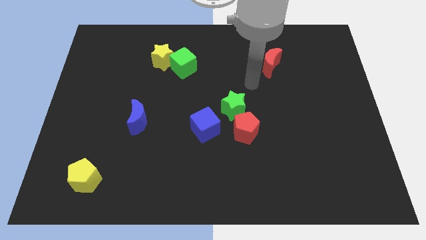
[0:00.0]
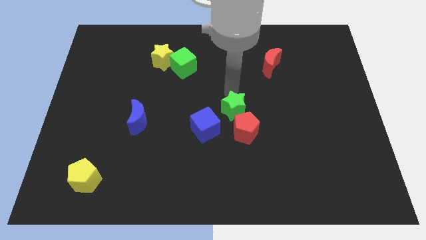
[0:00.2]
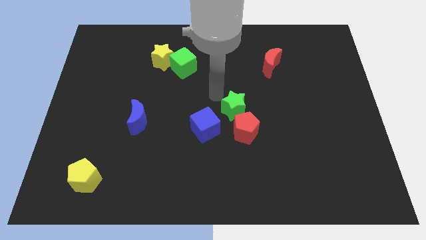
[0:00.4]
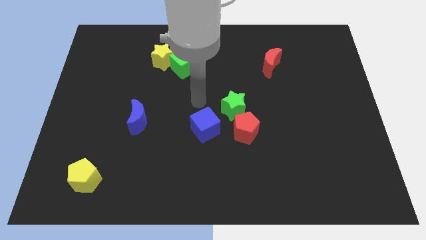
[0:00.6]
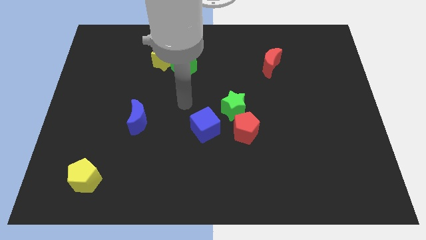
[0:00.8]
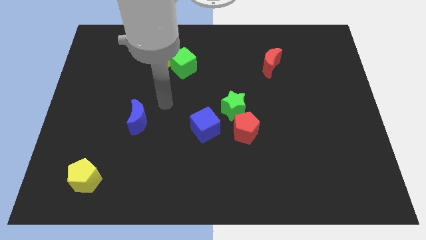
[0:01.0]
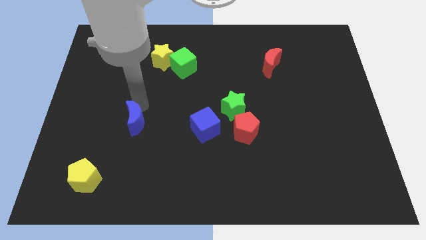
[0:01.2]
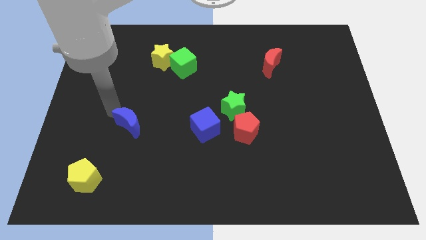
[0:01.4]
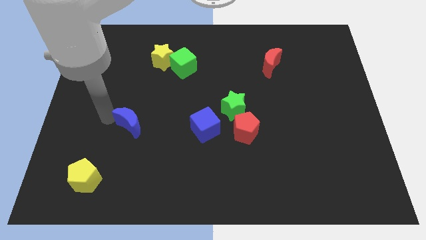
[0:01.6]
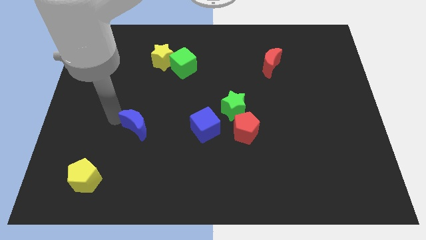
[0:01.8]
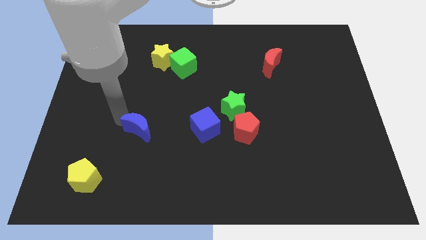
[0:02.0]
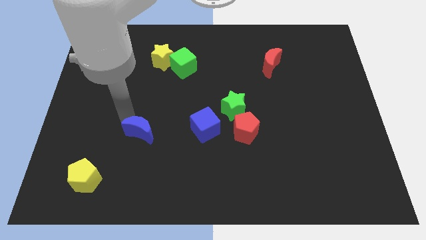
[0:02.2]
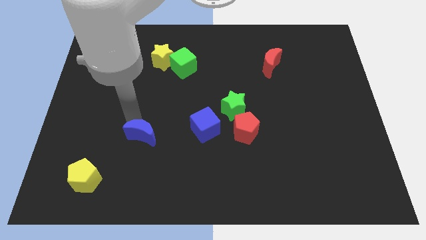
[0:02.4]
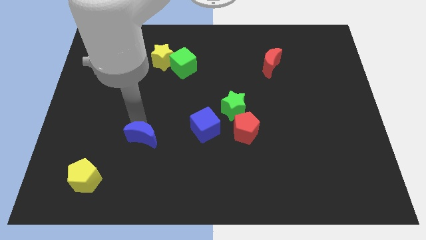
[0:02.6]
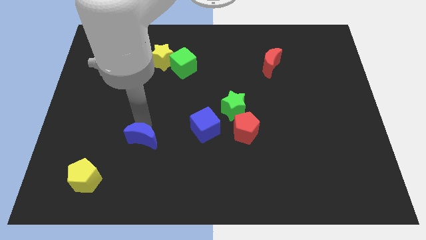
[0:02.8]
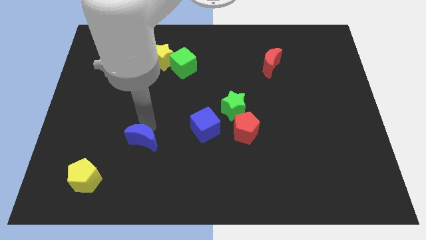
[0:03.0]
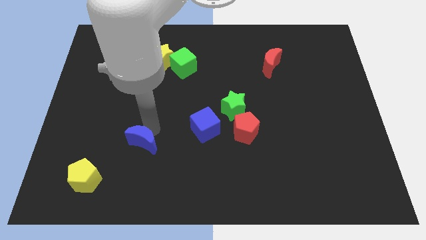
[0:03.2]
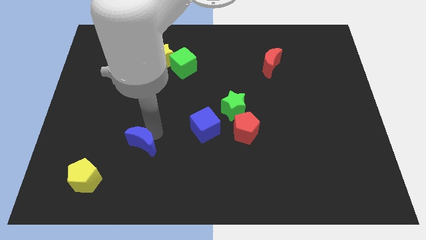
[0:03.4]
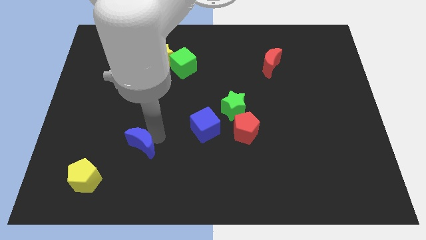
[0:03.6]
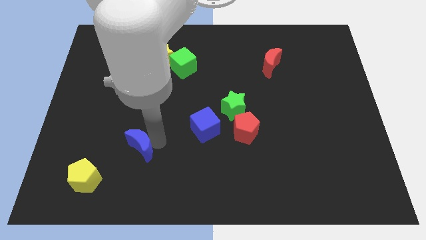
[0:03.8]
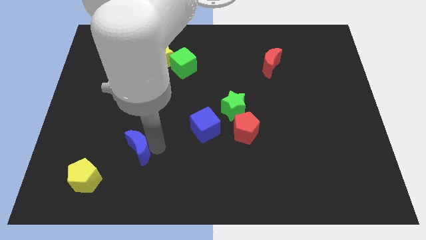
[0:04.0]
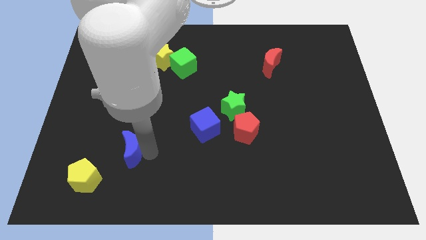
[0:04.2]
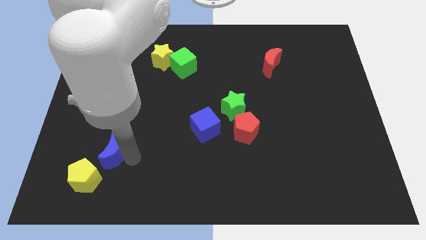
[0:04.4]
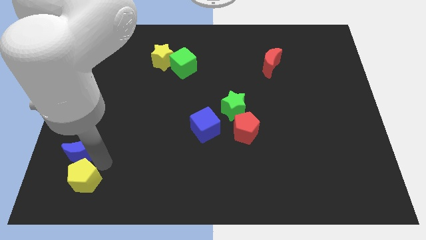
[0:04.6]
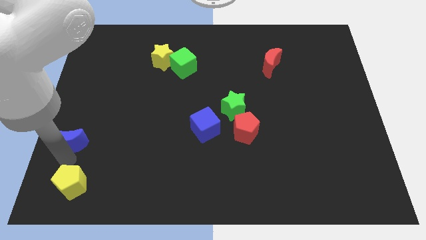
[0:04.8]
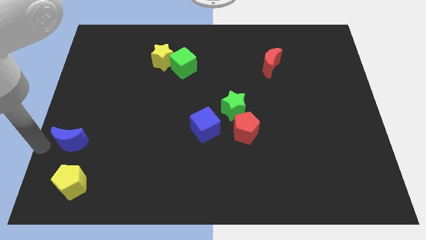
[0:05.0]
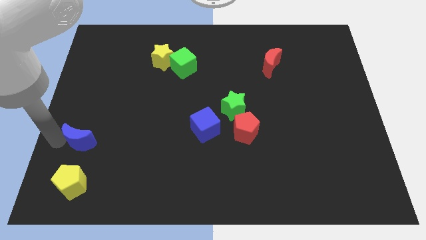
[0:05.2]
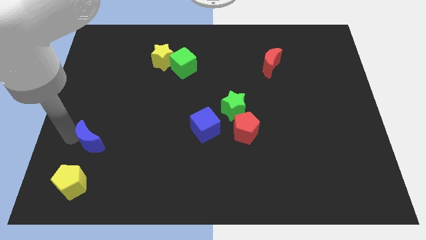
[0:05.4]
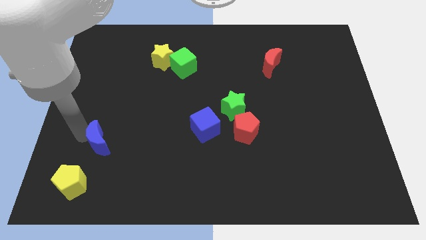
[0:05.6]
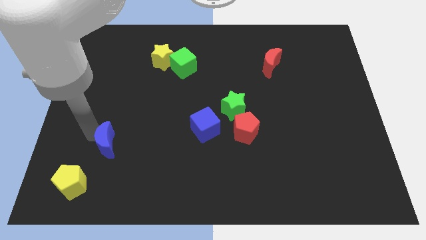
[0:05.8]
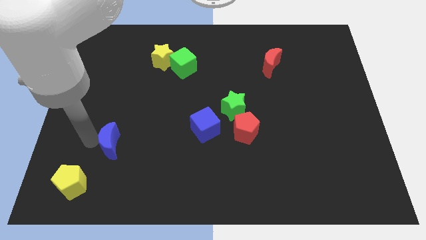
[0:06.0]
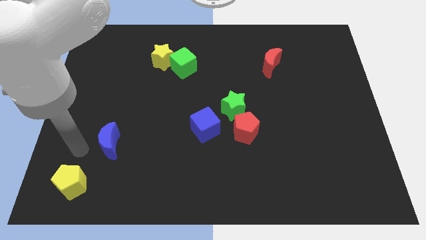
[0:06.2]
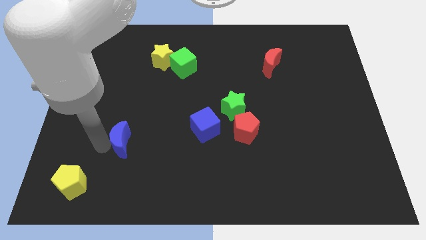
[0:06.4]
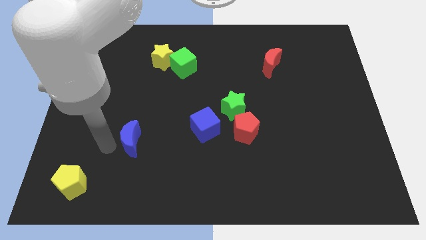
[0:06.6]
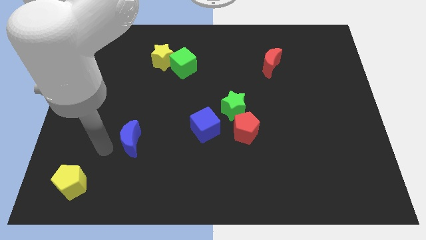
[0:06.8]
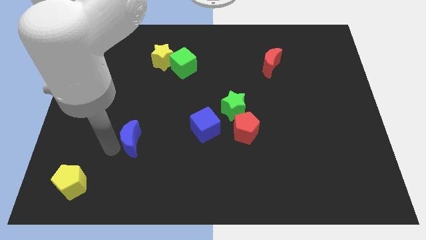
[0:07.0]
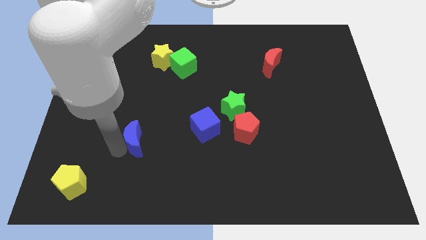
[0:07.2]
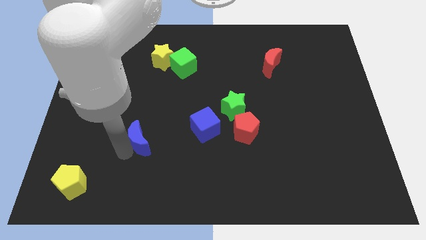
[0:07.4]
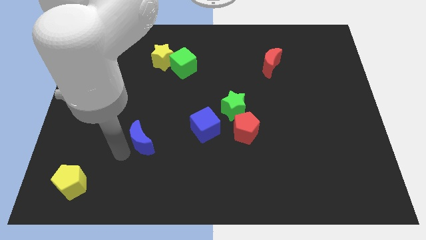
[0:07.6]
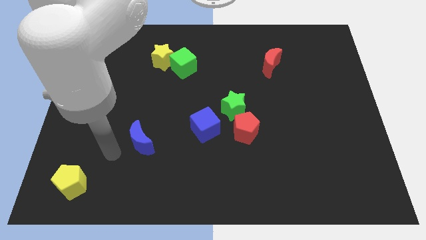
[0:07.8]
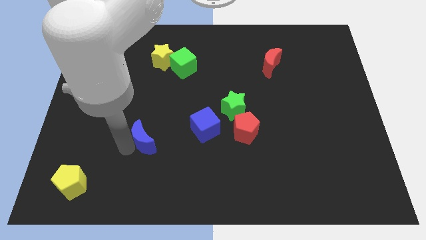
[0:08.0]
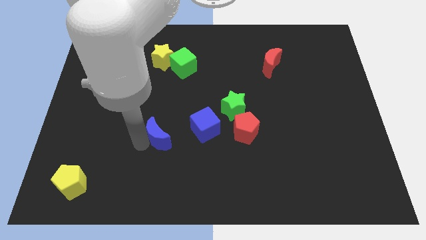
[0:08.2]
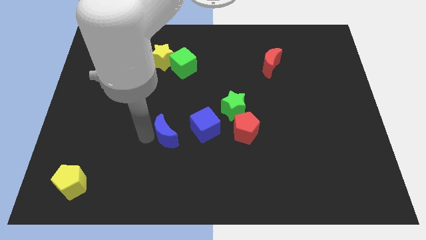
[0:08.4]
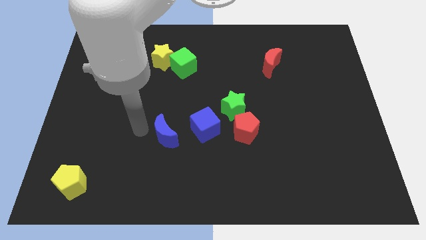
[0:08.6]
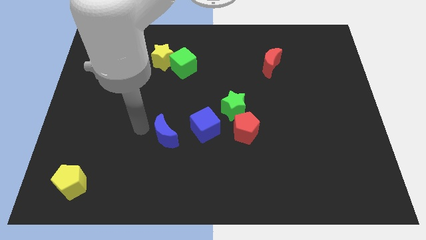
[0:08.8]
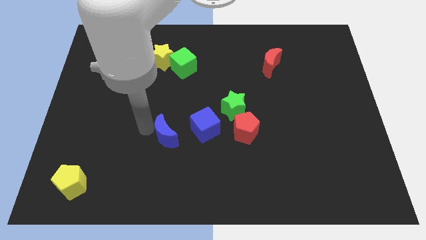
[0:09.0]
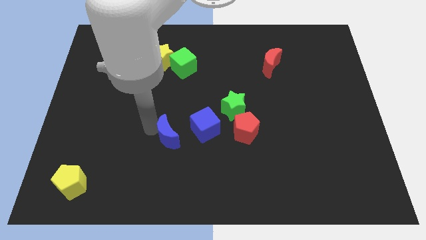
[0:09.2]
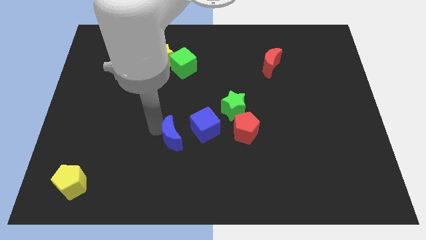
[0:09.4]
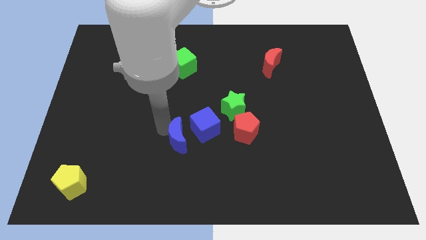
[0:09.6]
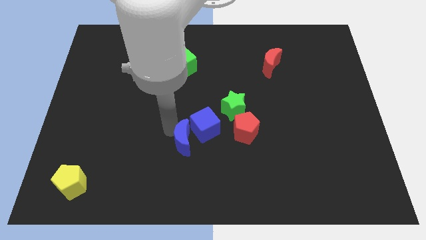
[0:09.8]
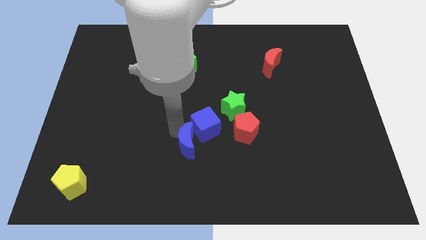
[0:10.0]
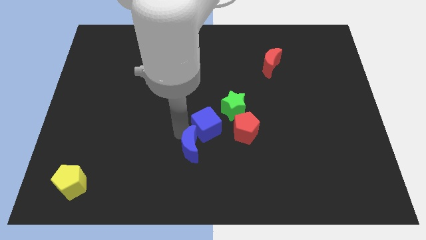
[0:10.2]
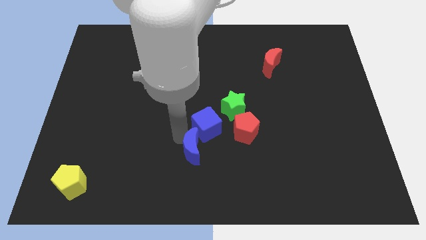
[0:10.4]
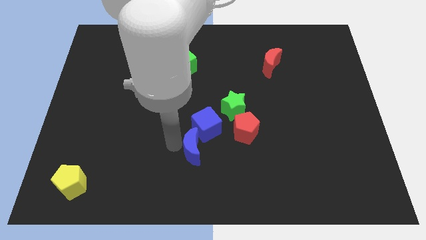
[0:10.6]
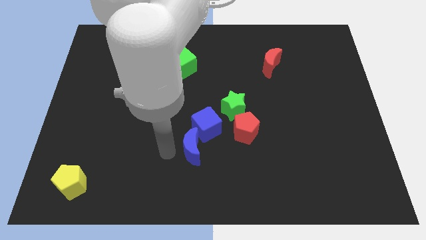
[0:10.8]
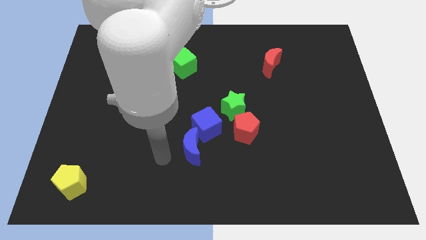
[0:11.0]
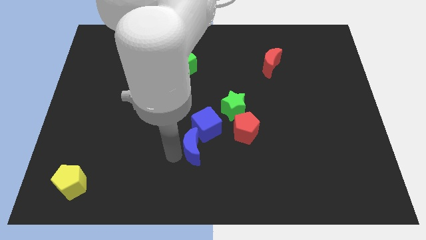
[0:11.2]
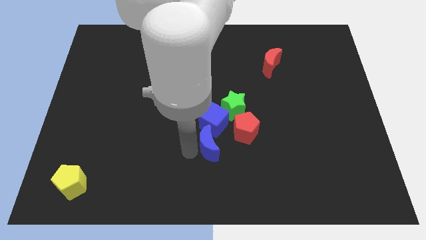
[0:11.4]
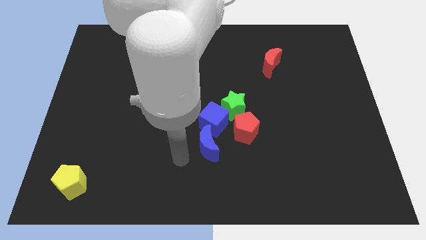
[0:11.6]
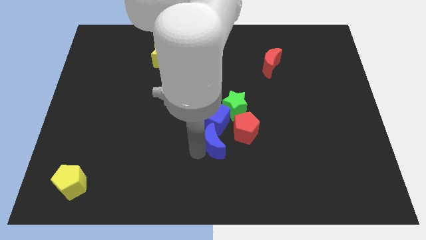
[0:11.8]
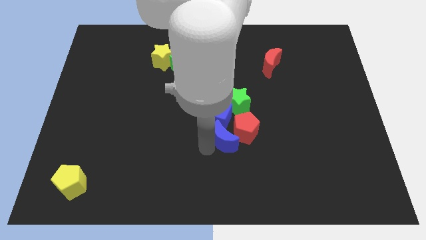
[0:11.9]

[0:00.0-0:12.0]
push the blue moon close to the red pentagon

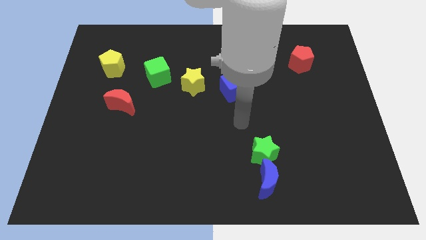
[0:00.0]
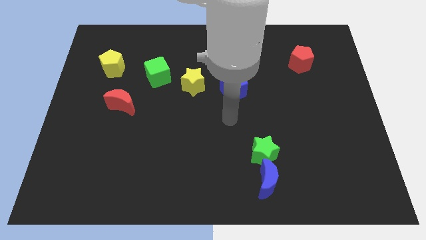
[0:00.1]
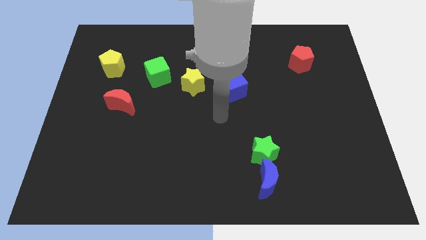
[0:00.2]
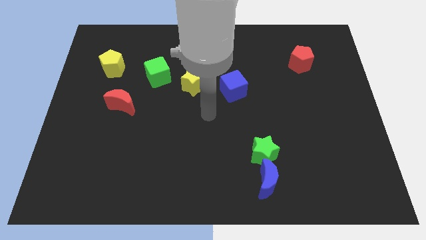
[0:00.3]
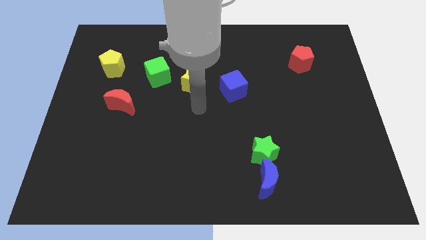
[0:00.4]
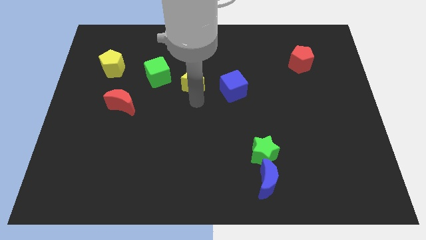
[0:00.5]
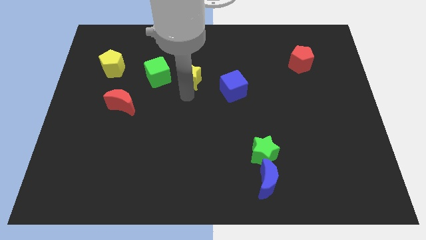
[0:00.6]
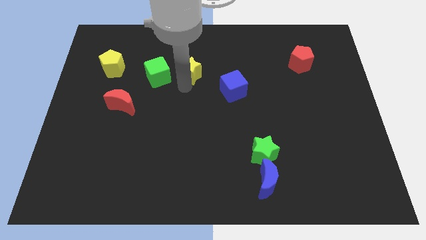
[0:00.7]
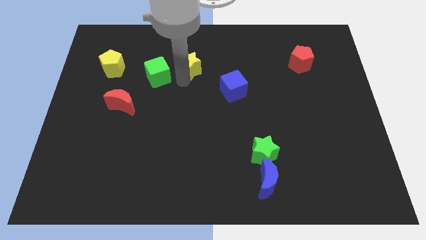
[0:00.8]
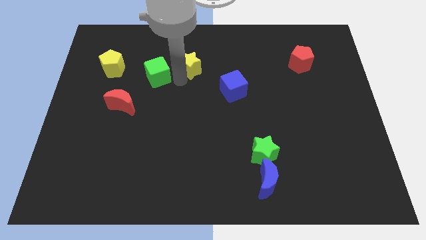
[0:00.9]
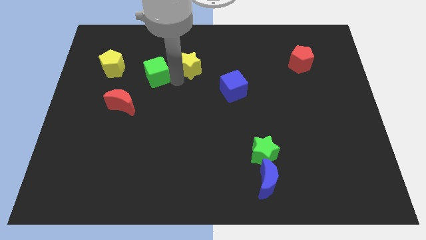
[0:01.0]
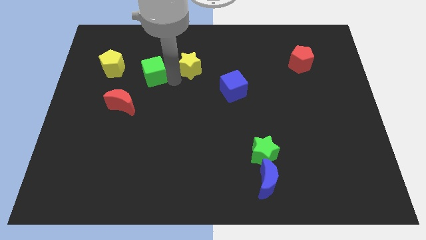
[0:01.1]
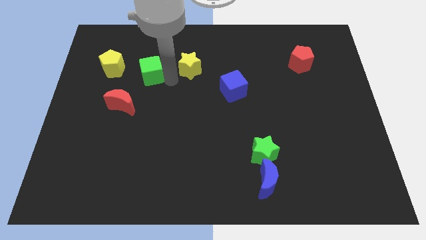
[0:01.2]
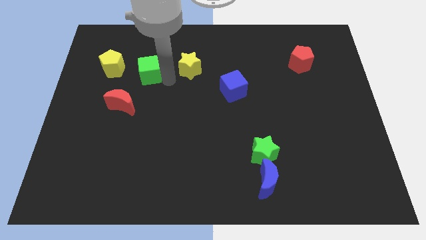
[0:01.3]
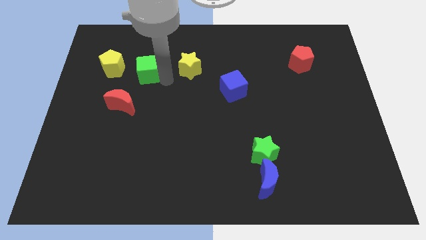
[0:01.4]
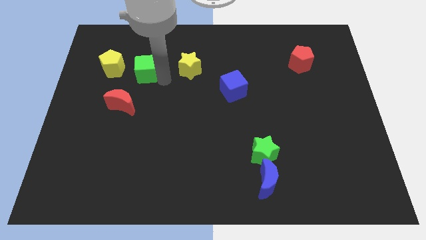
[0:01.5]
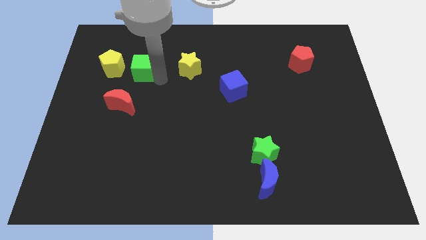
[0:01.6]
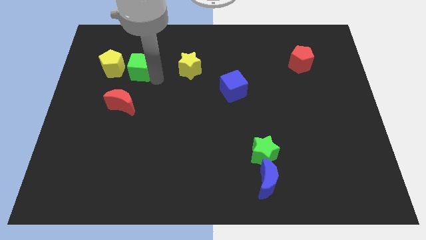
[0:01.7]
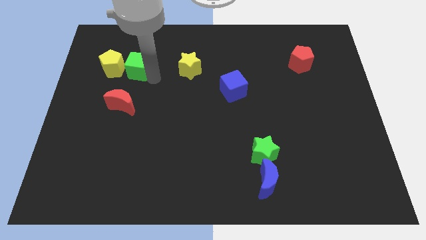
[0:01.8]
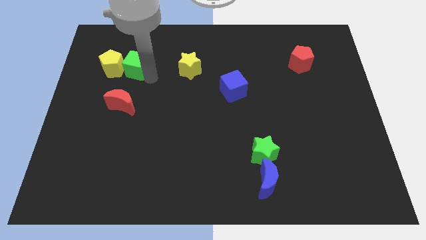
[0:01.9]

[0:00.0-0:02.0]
move the green cube towards the yellow pentagon
